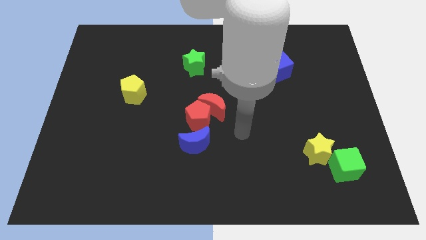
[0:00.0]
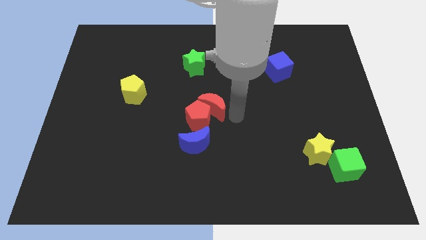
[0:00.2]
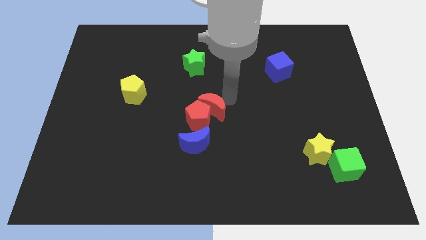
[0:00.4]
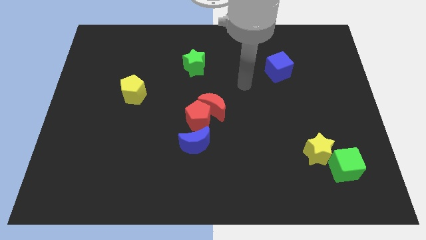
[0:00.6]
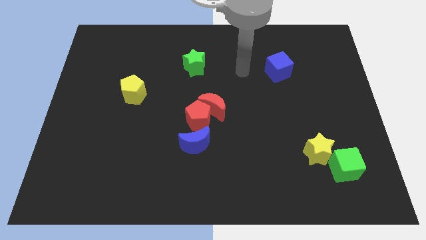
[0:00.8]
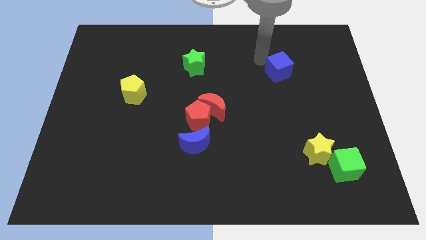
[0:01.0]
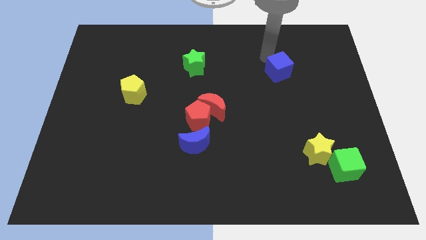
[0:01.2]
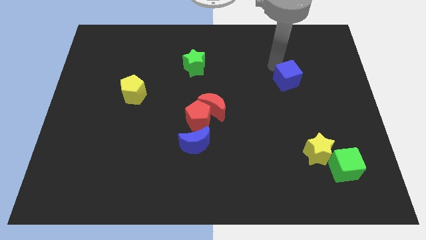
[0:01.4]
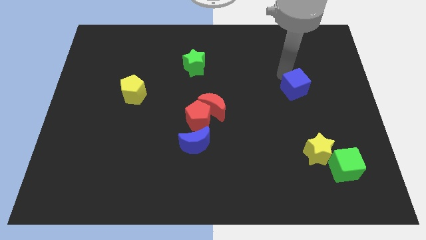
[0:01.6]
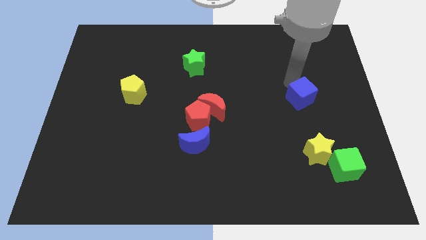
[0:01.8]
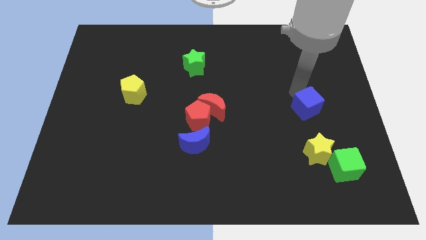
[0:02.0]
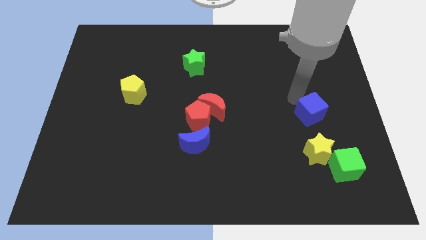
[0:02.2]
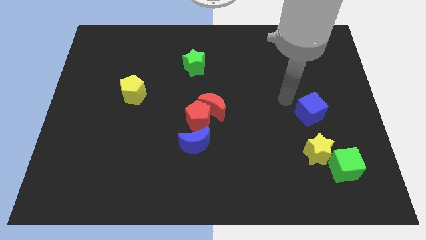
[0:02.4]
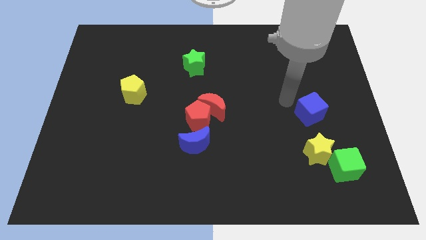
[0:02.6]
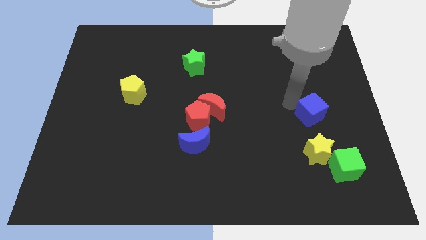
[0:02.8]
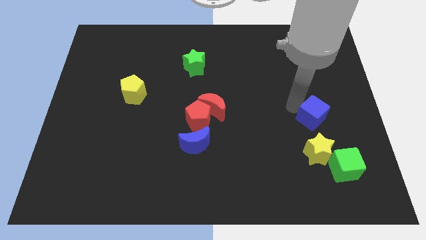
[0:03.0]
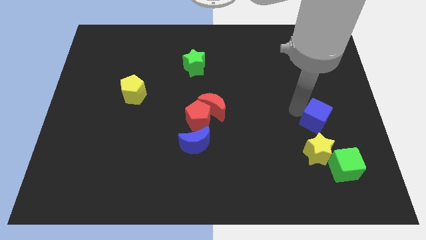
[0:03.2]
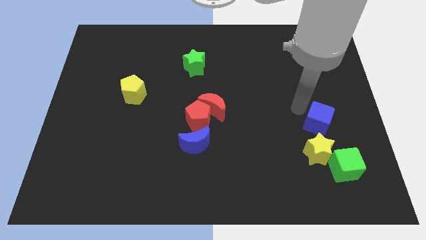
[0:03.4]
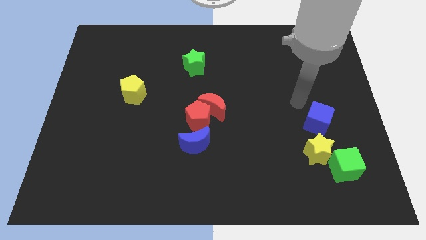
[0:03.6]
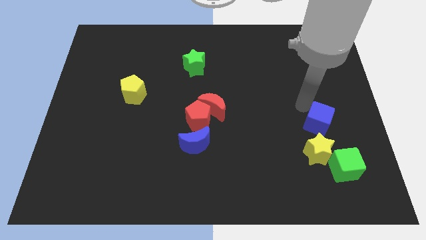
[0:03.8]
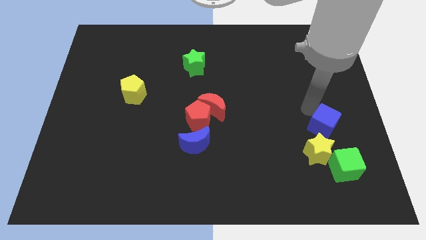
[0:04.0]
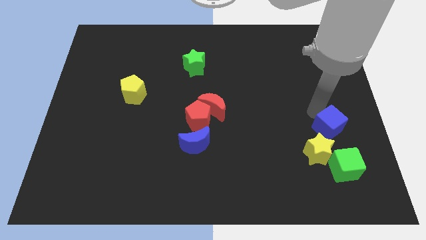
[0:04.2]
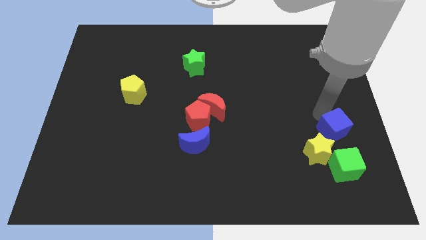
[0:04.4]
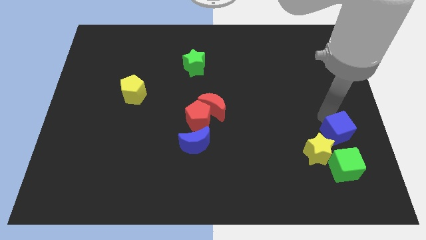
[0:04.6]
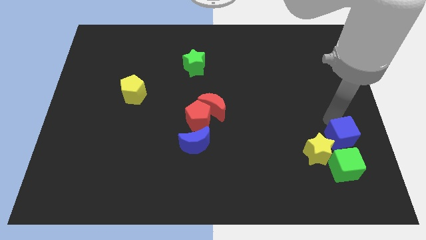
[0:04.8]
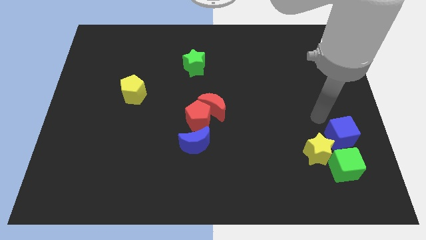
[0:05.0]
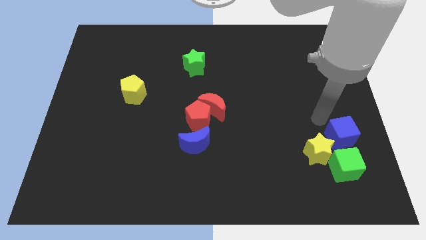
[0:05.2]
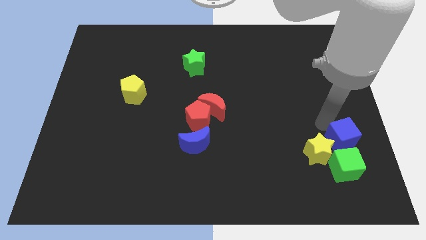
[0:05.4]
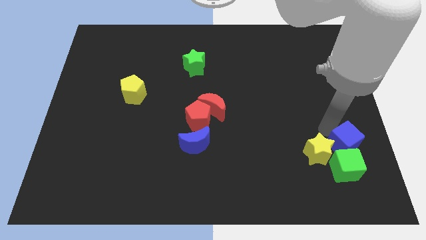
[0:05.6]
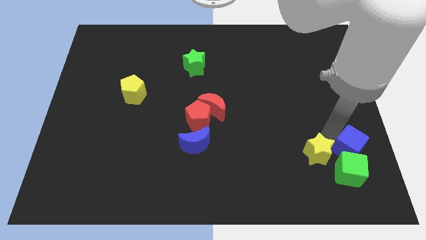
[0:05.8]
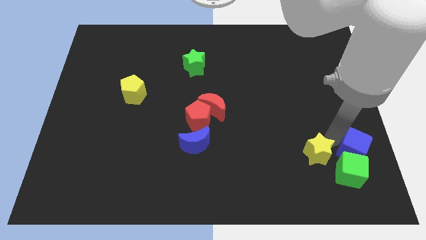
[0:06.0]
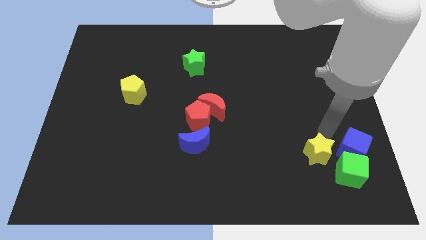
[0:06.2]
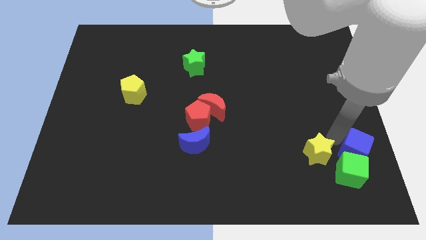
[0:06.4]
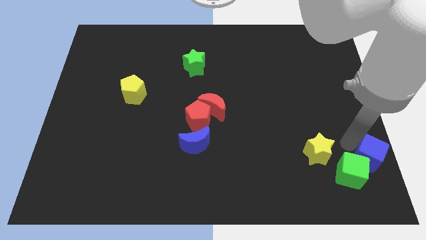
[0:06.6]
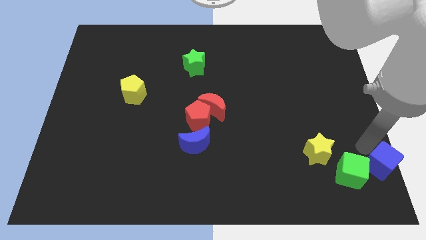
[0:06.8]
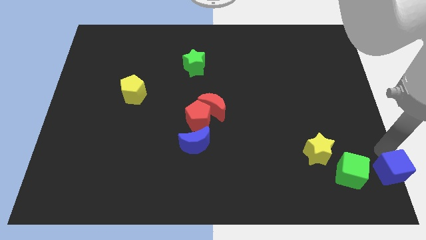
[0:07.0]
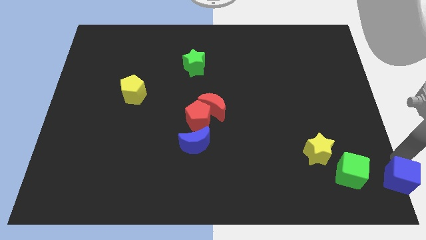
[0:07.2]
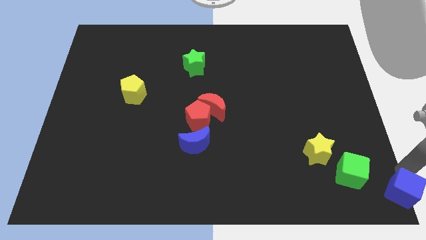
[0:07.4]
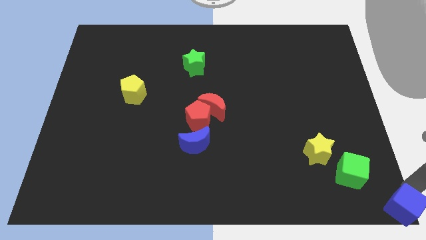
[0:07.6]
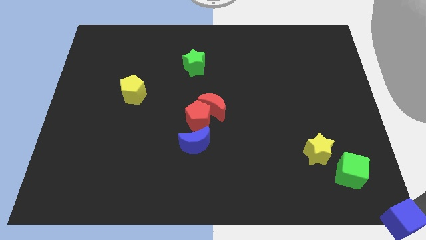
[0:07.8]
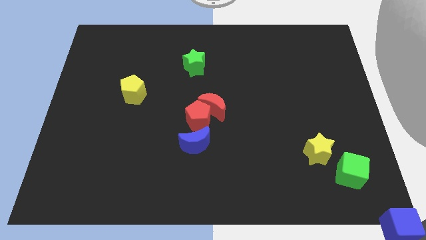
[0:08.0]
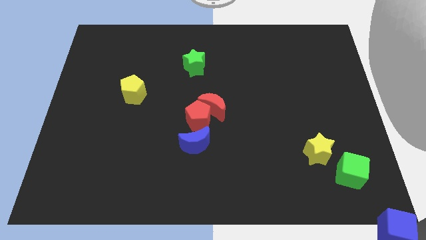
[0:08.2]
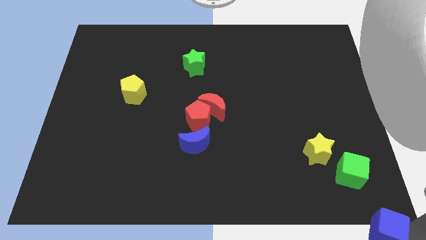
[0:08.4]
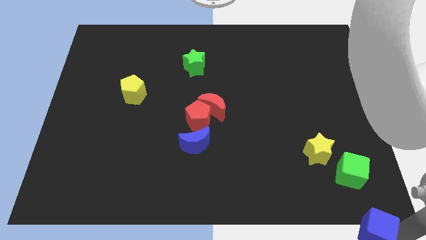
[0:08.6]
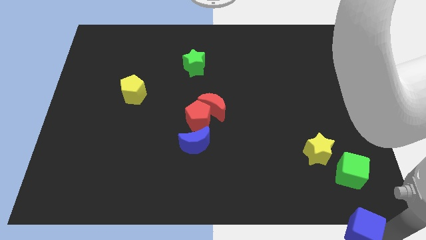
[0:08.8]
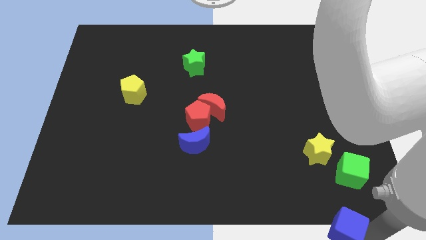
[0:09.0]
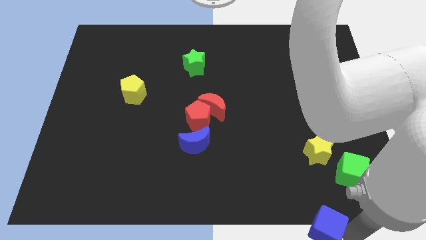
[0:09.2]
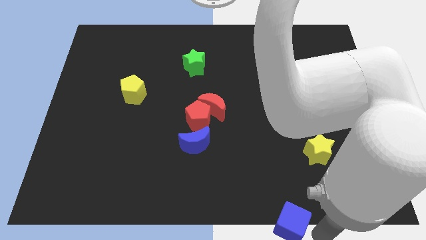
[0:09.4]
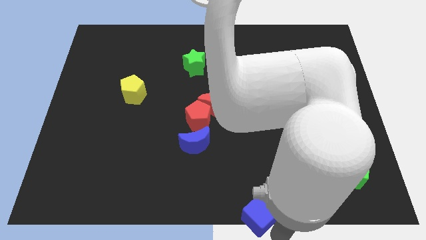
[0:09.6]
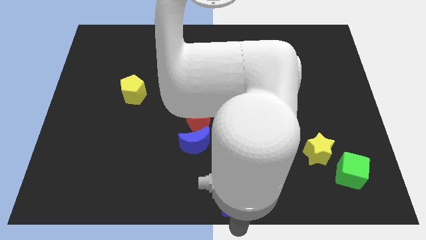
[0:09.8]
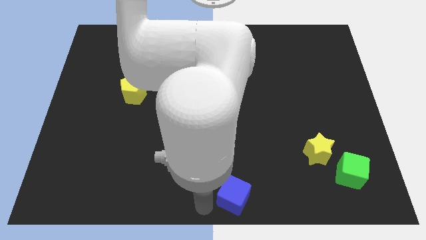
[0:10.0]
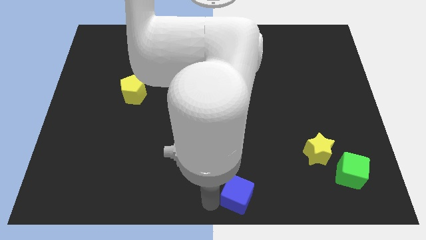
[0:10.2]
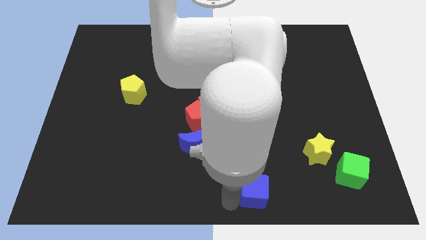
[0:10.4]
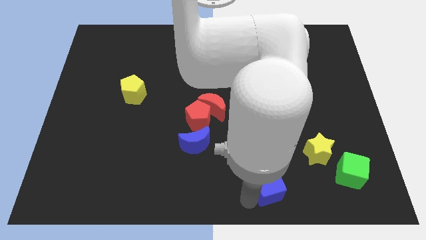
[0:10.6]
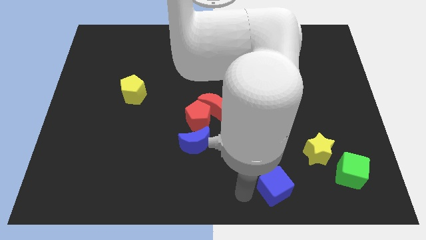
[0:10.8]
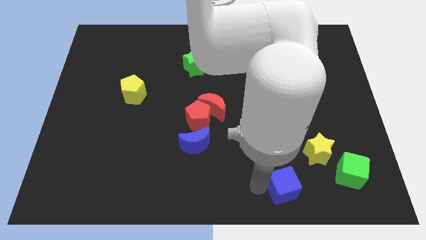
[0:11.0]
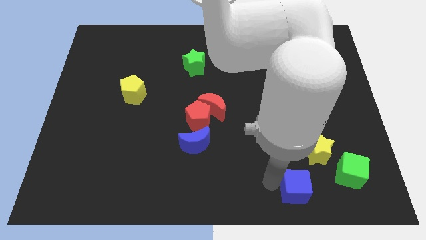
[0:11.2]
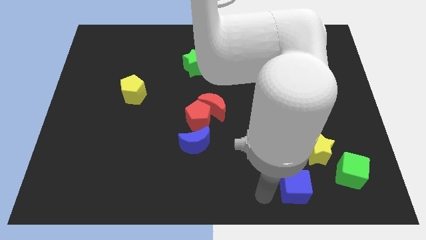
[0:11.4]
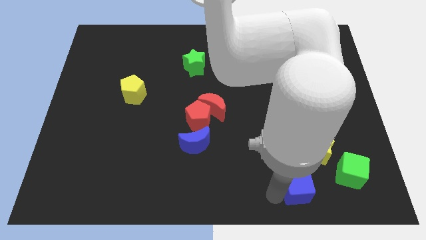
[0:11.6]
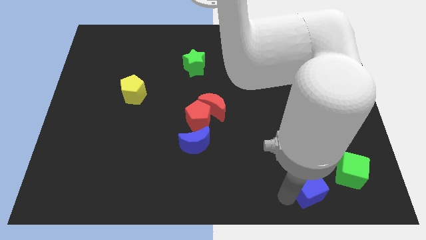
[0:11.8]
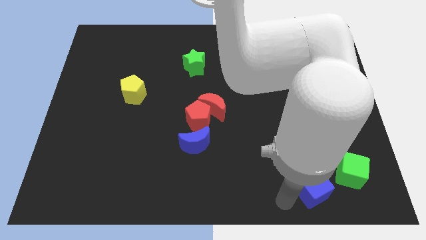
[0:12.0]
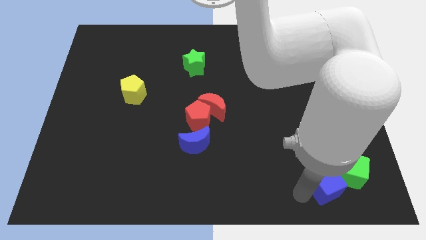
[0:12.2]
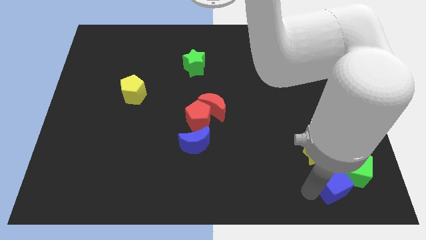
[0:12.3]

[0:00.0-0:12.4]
put the blue cube diagonally down and to the right of the yellow star

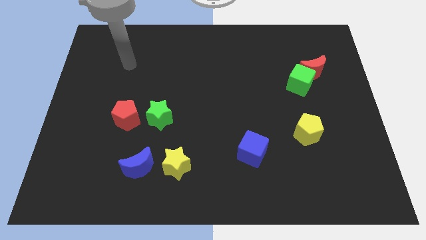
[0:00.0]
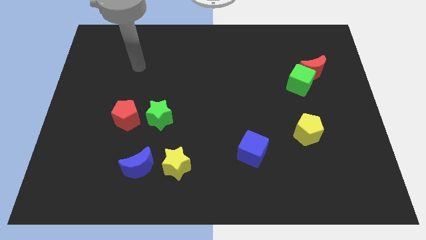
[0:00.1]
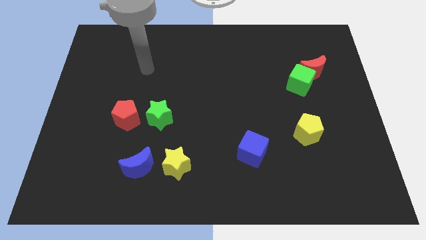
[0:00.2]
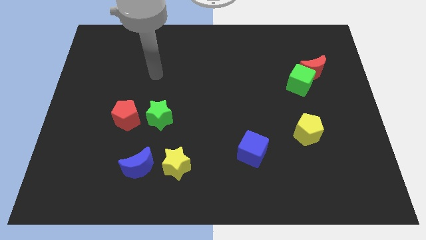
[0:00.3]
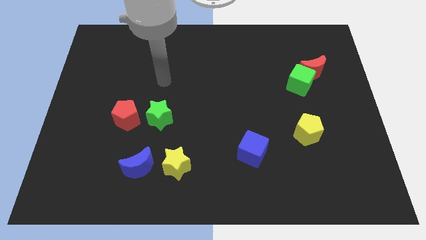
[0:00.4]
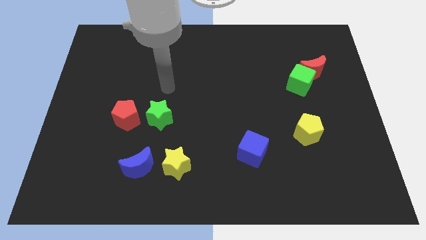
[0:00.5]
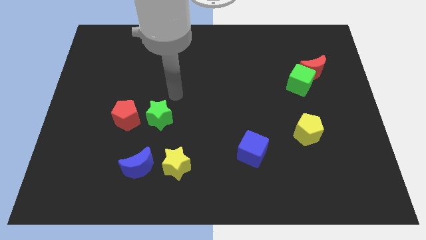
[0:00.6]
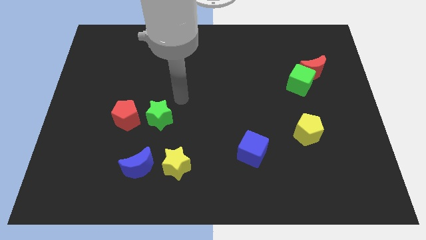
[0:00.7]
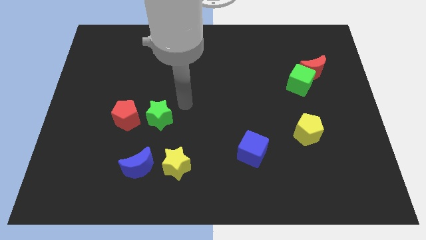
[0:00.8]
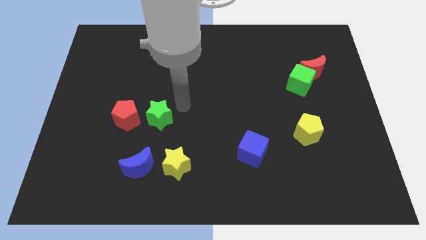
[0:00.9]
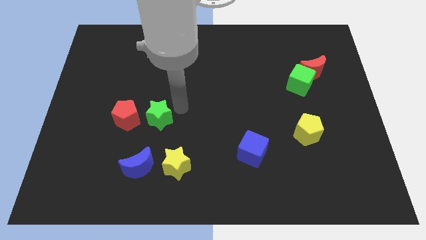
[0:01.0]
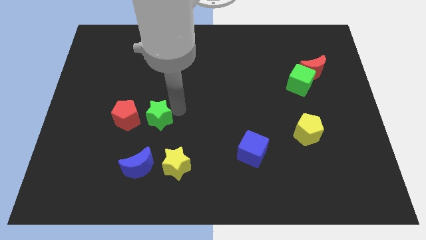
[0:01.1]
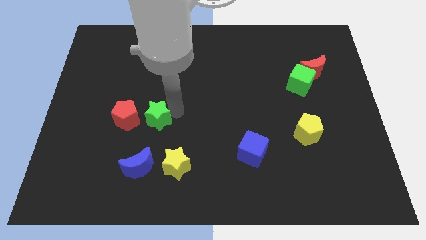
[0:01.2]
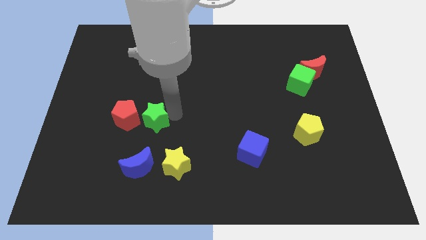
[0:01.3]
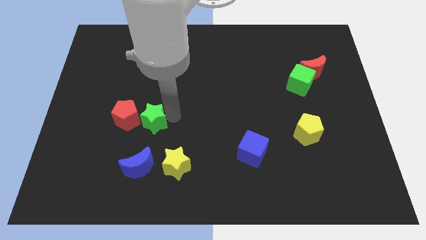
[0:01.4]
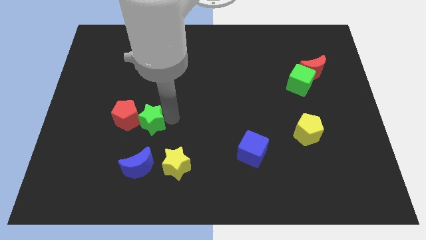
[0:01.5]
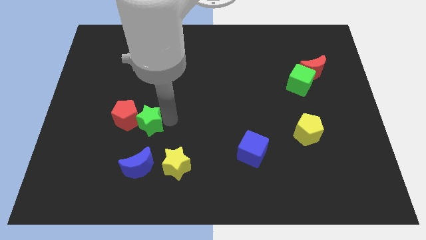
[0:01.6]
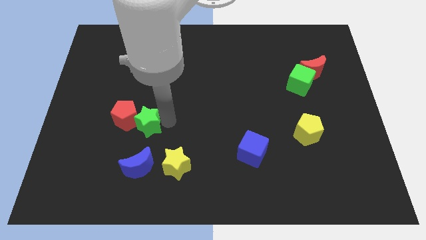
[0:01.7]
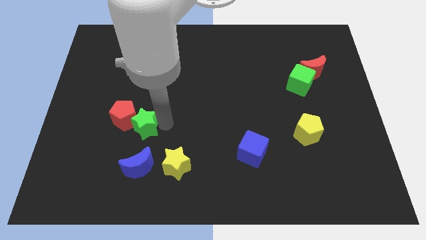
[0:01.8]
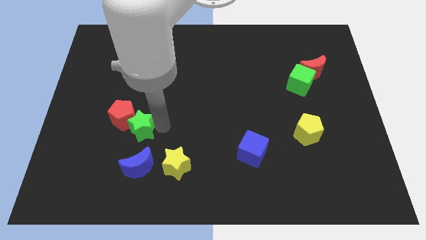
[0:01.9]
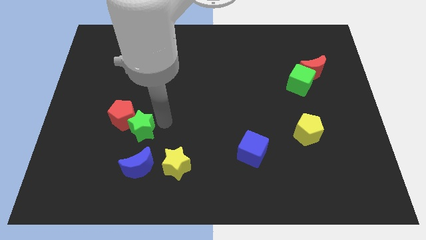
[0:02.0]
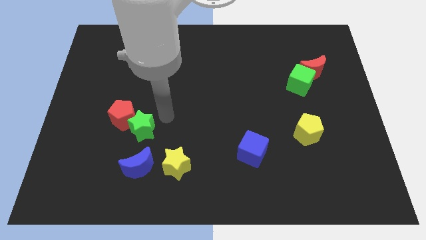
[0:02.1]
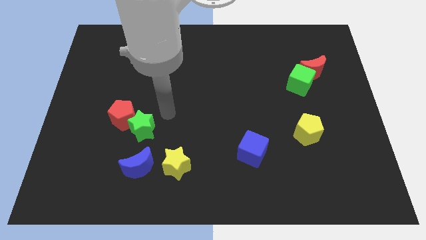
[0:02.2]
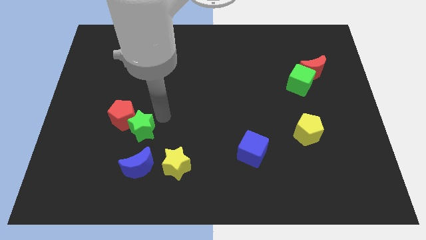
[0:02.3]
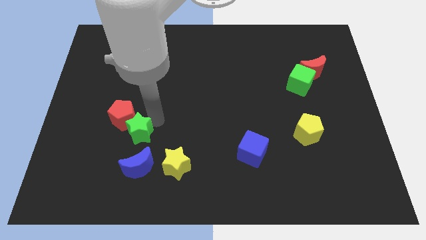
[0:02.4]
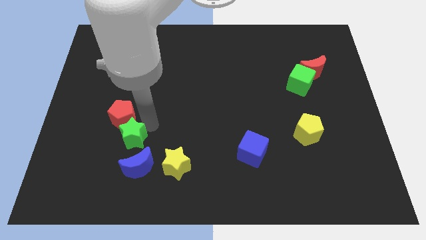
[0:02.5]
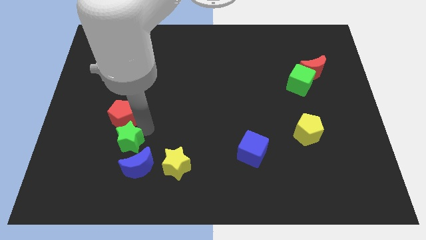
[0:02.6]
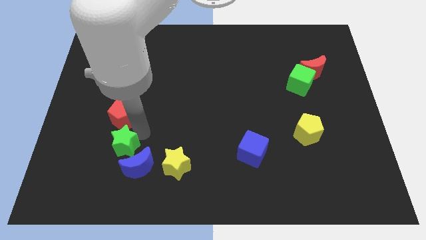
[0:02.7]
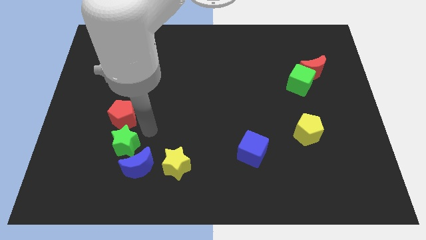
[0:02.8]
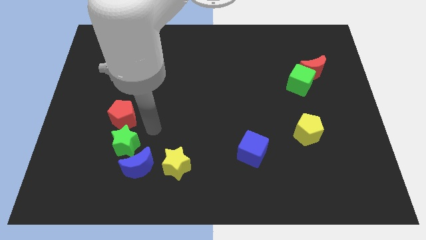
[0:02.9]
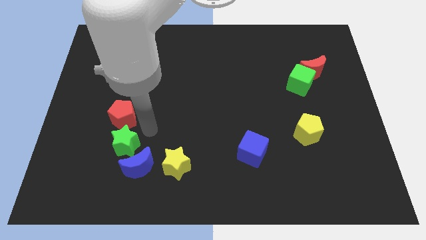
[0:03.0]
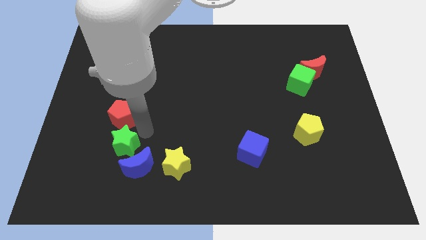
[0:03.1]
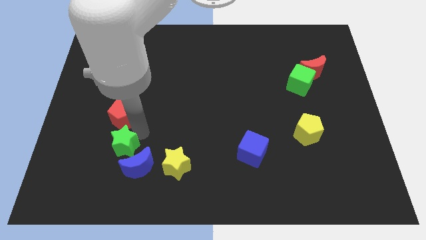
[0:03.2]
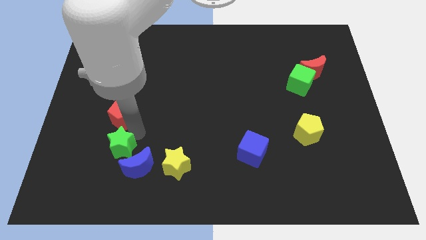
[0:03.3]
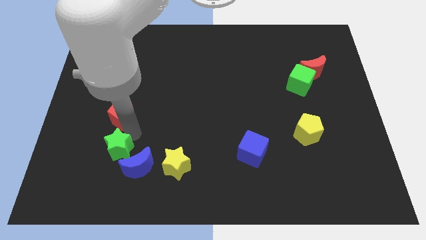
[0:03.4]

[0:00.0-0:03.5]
push the green star to the left of the blue moon
